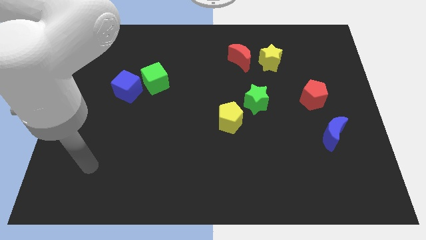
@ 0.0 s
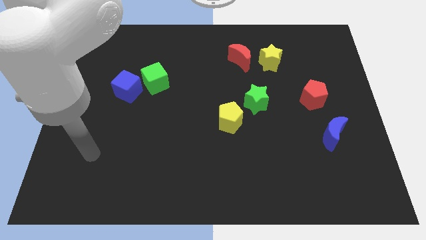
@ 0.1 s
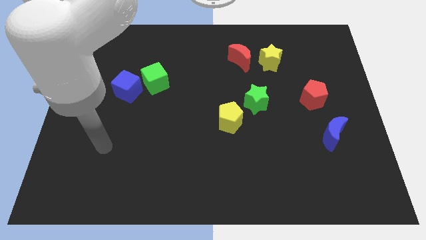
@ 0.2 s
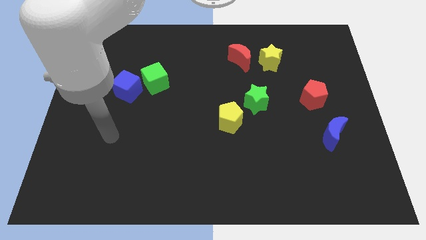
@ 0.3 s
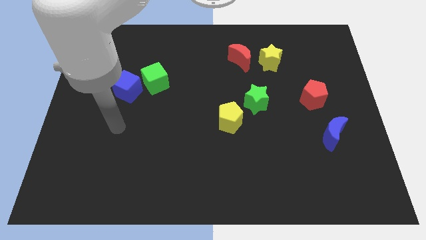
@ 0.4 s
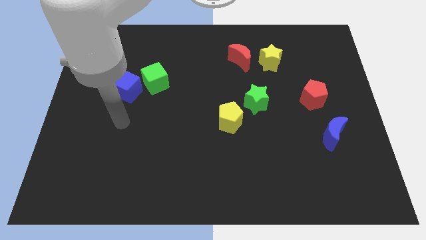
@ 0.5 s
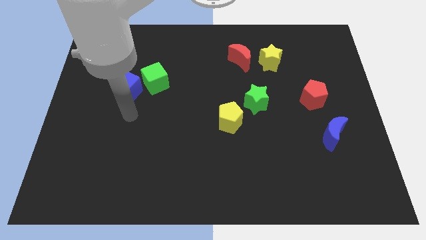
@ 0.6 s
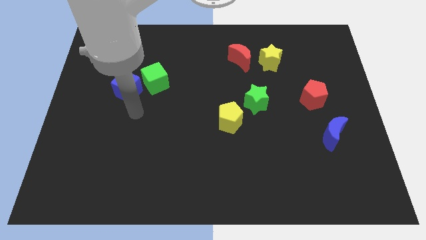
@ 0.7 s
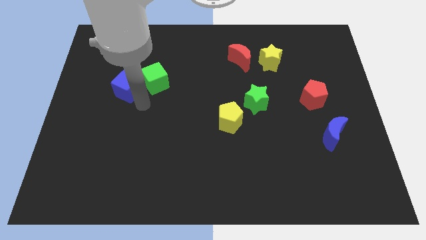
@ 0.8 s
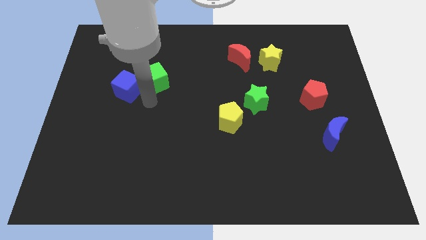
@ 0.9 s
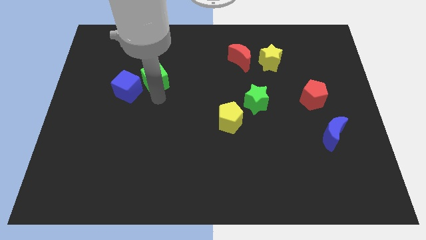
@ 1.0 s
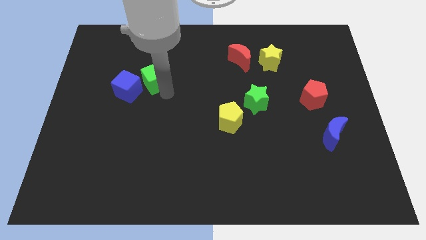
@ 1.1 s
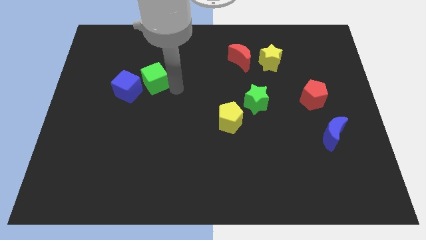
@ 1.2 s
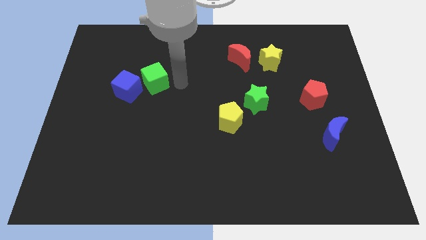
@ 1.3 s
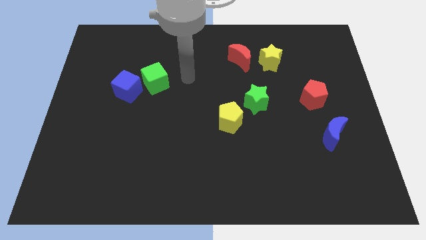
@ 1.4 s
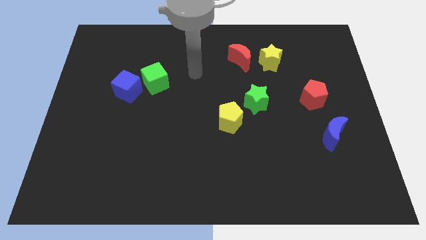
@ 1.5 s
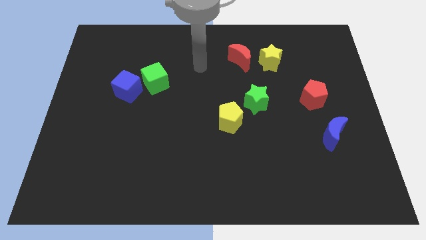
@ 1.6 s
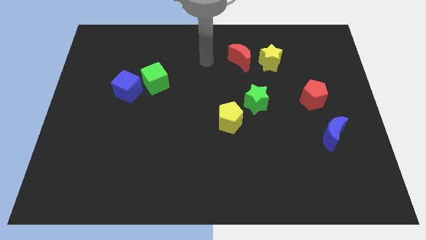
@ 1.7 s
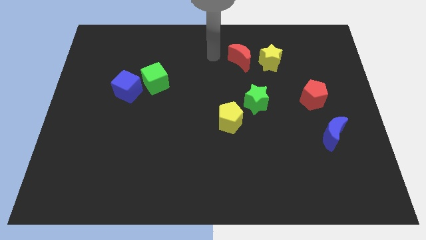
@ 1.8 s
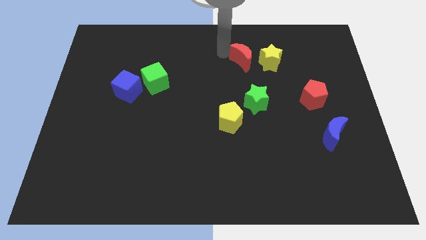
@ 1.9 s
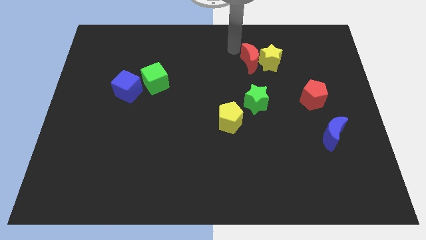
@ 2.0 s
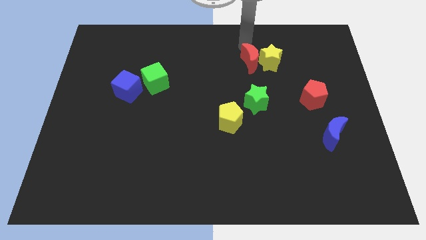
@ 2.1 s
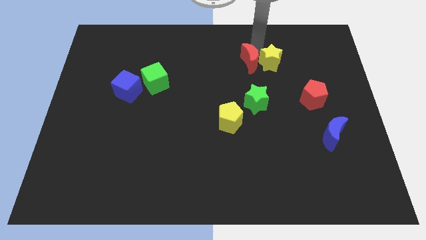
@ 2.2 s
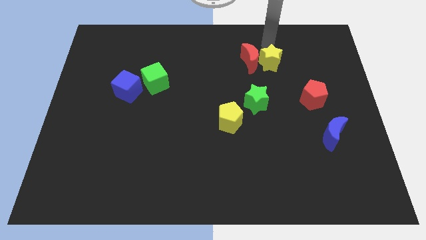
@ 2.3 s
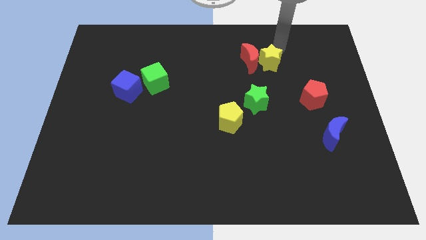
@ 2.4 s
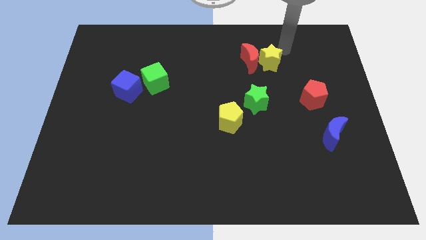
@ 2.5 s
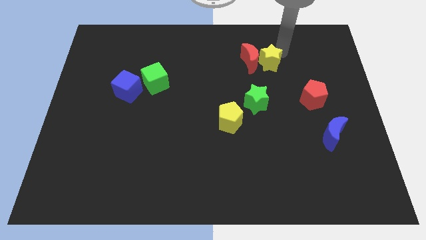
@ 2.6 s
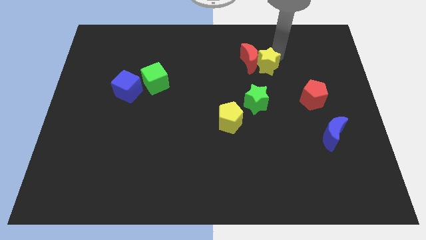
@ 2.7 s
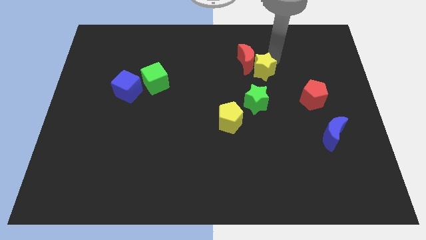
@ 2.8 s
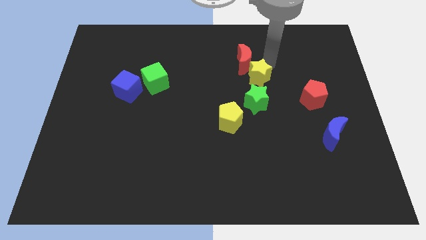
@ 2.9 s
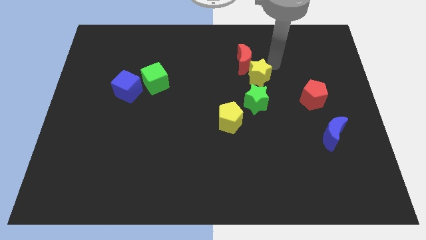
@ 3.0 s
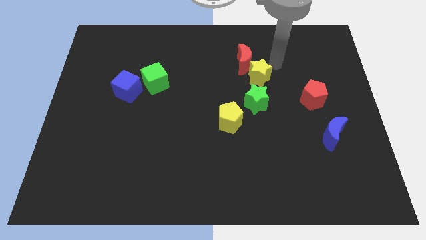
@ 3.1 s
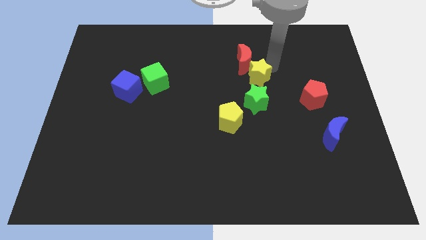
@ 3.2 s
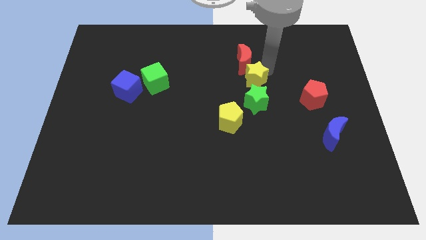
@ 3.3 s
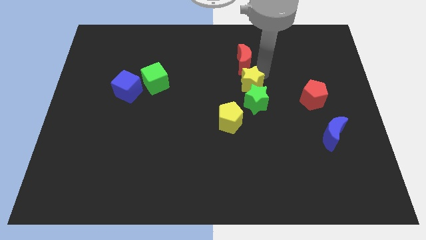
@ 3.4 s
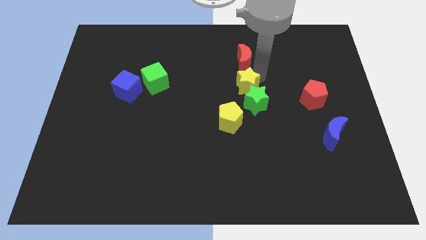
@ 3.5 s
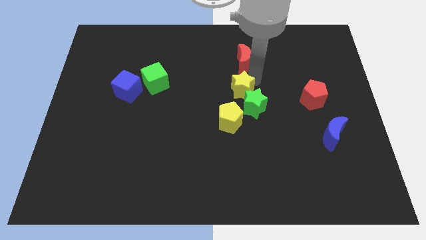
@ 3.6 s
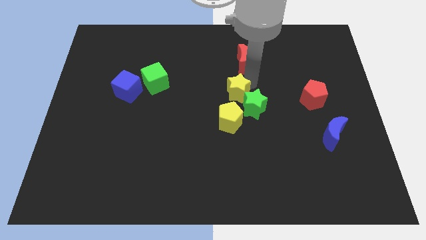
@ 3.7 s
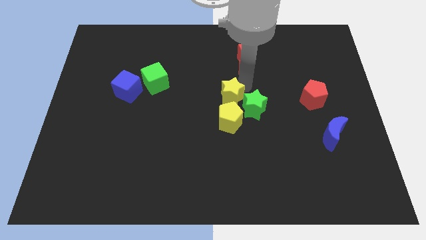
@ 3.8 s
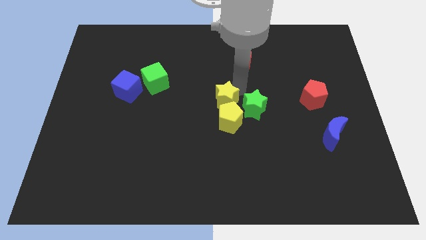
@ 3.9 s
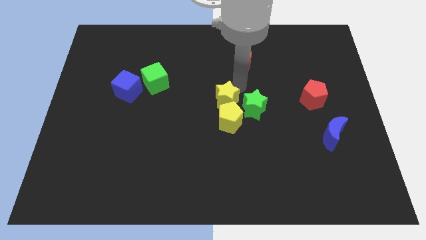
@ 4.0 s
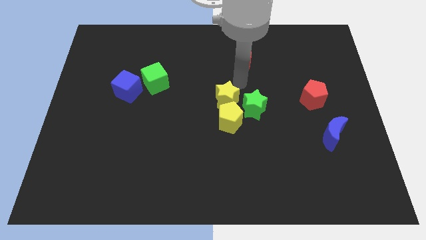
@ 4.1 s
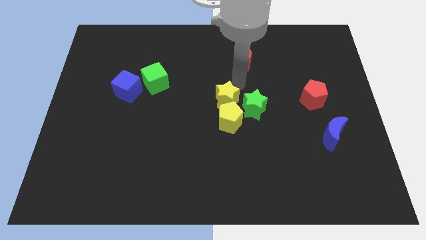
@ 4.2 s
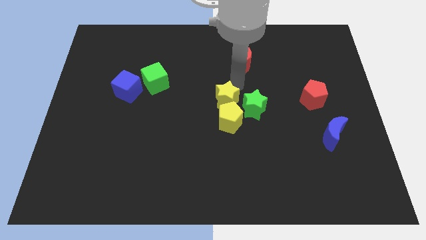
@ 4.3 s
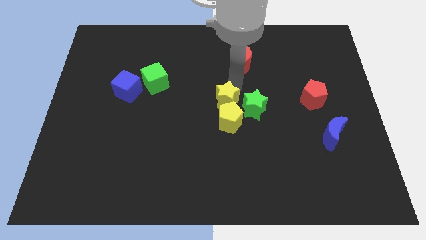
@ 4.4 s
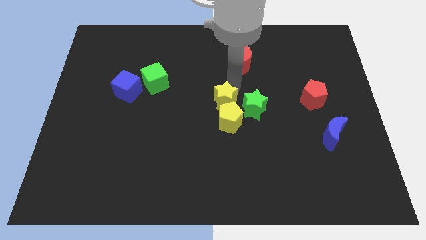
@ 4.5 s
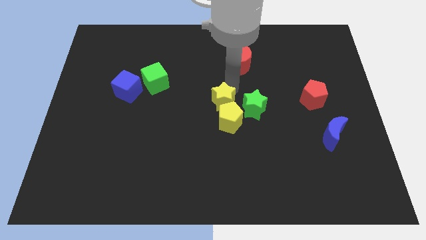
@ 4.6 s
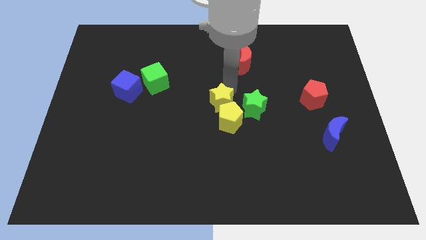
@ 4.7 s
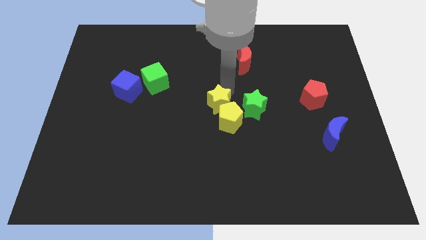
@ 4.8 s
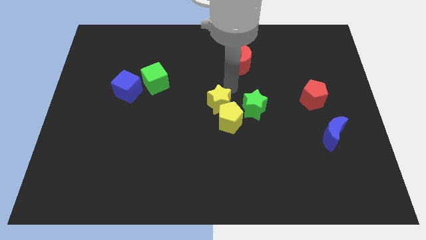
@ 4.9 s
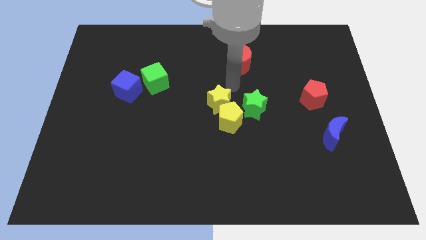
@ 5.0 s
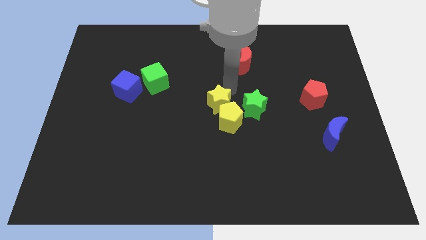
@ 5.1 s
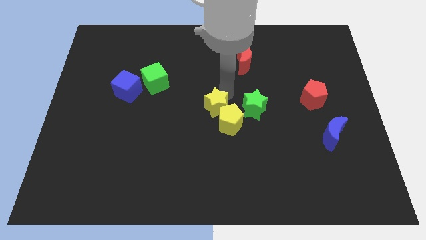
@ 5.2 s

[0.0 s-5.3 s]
push the yellow star down and then to the left

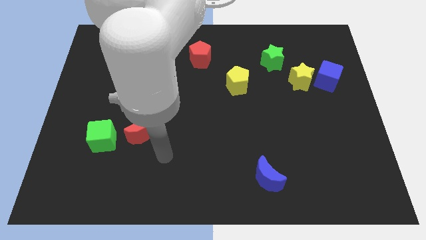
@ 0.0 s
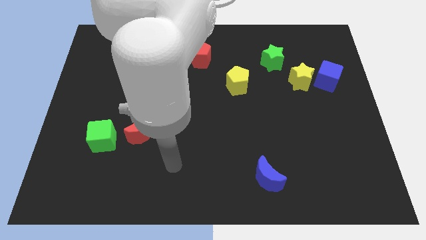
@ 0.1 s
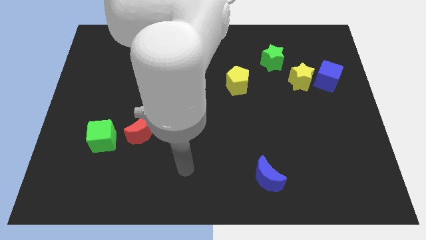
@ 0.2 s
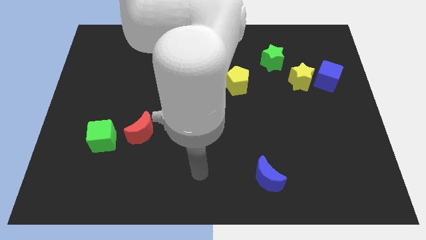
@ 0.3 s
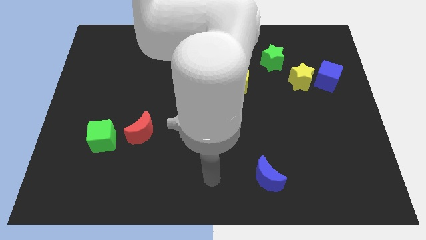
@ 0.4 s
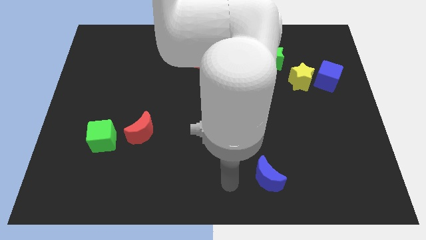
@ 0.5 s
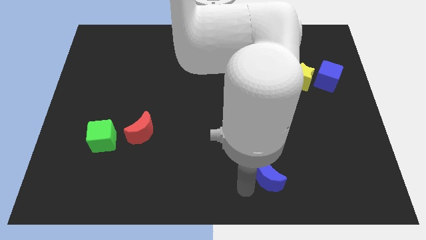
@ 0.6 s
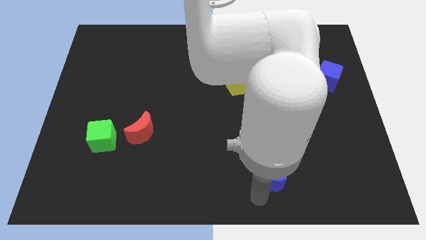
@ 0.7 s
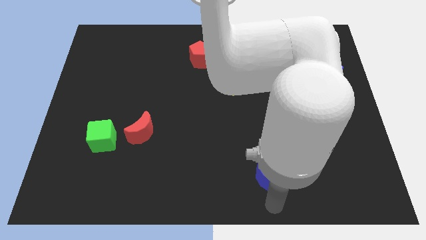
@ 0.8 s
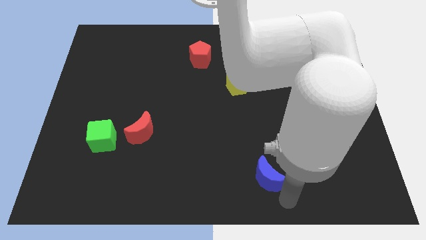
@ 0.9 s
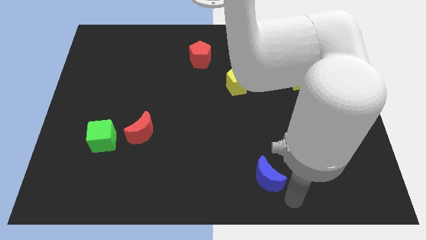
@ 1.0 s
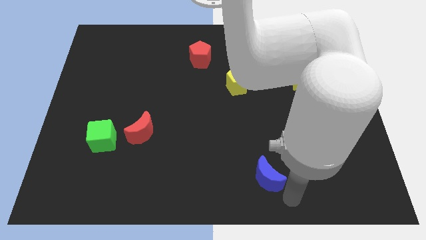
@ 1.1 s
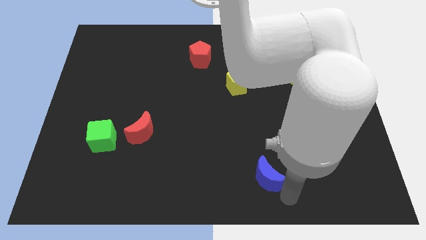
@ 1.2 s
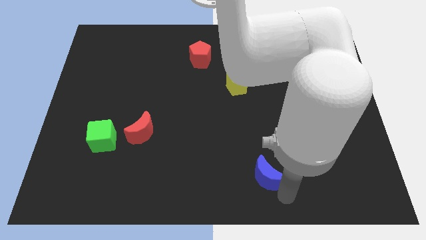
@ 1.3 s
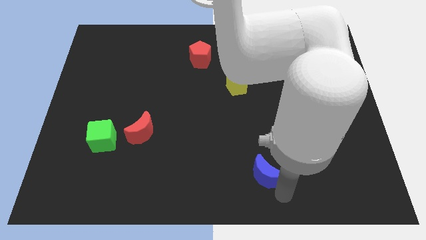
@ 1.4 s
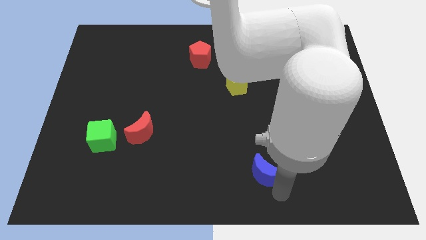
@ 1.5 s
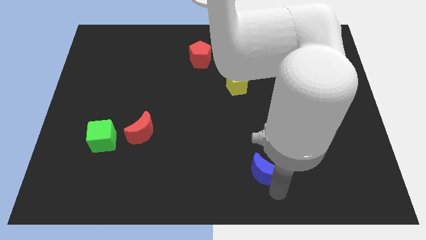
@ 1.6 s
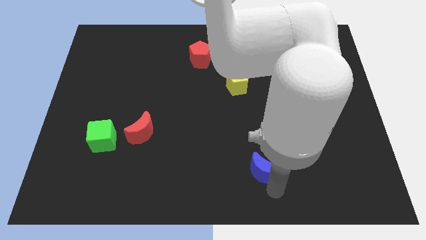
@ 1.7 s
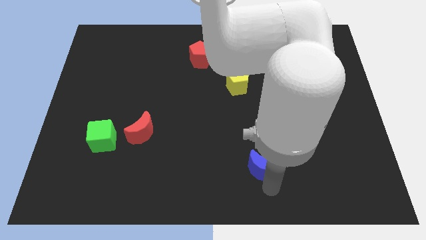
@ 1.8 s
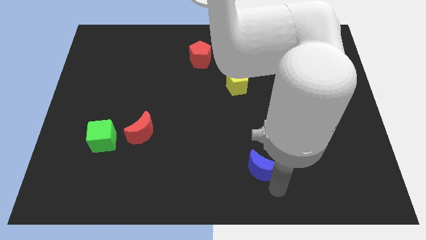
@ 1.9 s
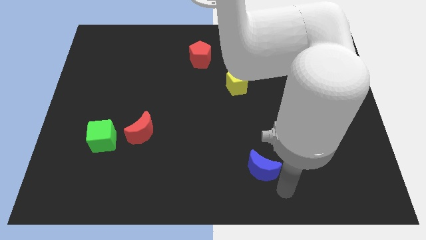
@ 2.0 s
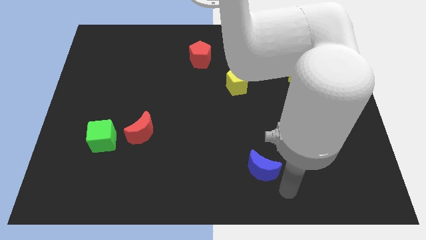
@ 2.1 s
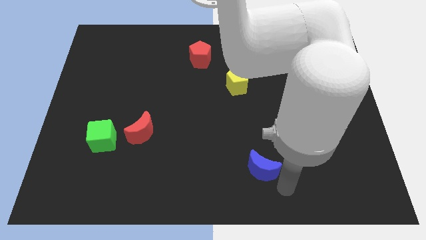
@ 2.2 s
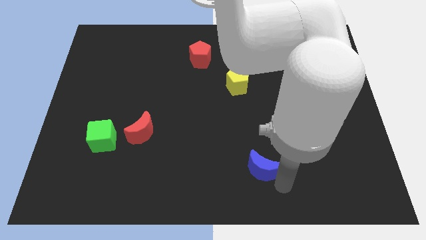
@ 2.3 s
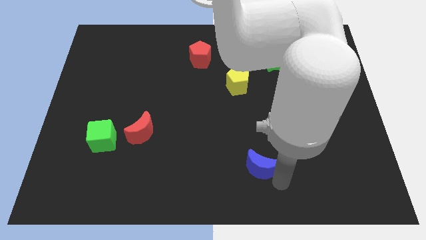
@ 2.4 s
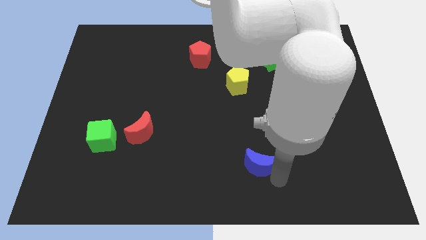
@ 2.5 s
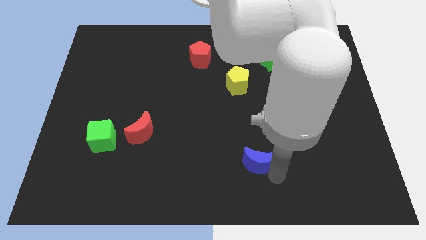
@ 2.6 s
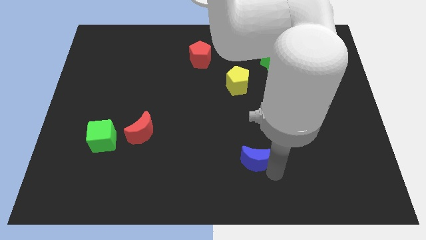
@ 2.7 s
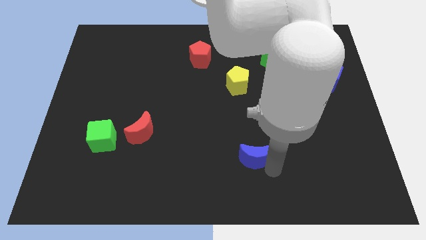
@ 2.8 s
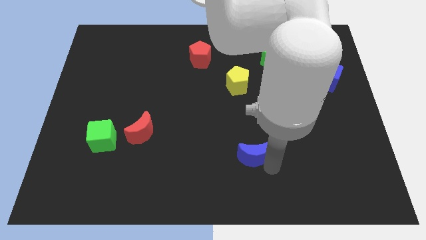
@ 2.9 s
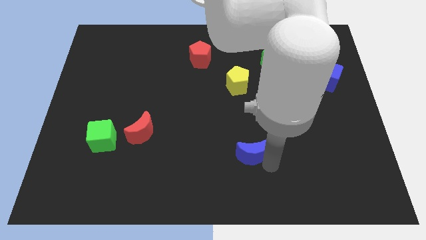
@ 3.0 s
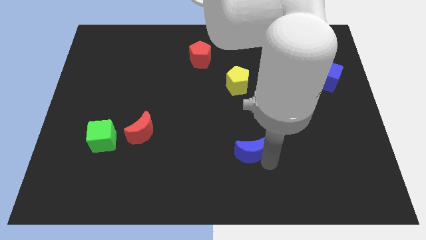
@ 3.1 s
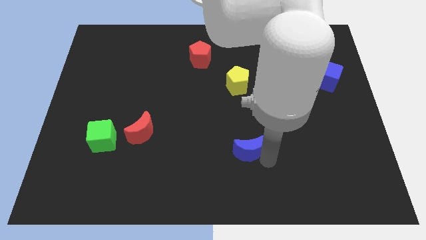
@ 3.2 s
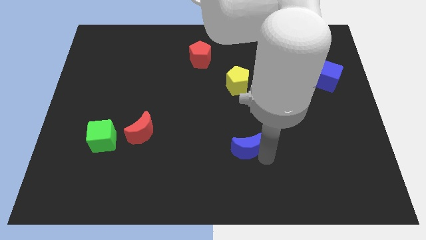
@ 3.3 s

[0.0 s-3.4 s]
slightly move the blue moon up and left diagonally
